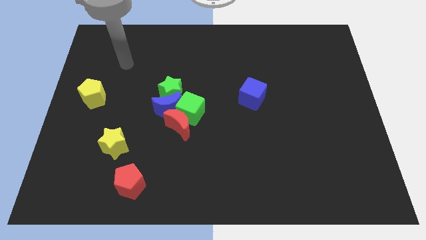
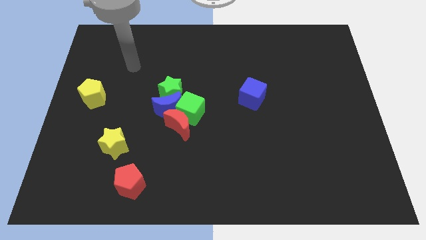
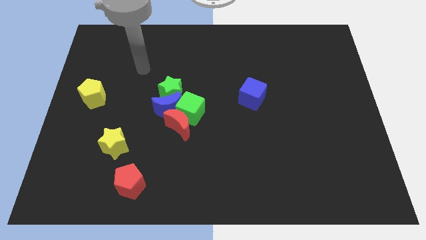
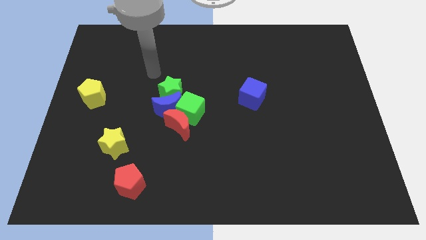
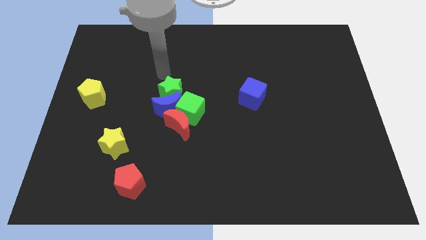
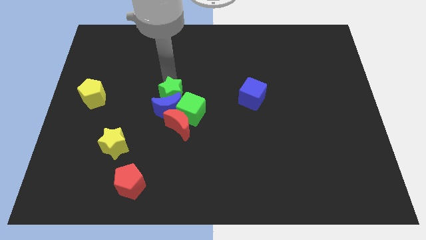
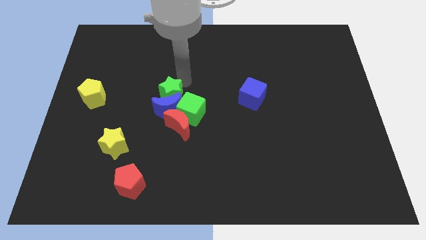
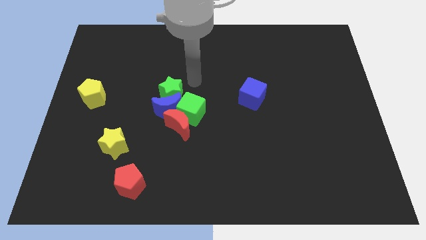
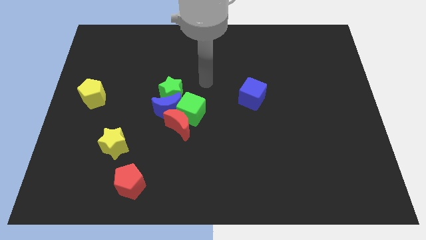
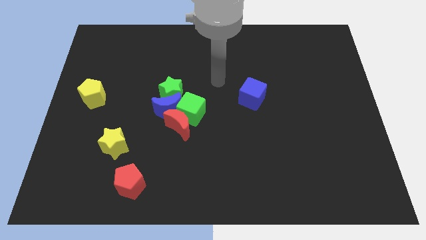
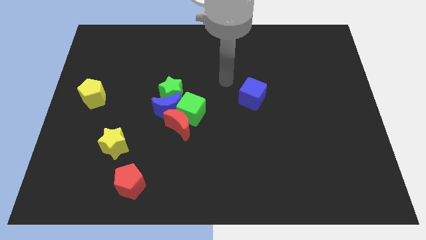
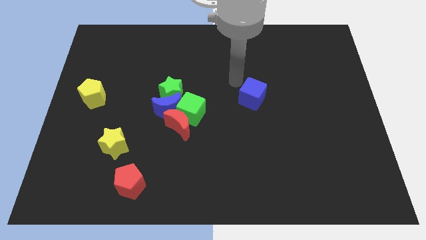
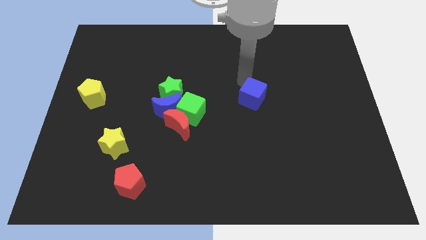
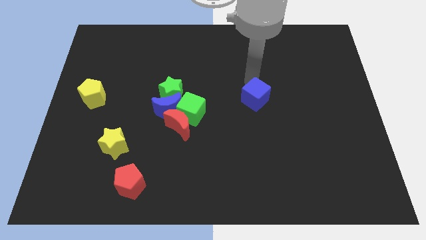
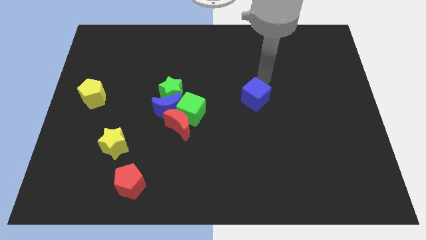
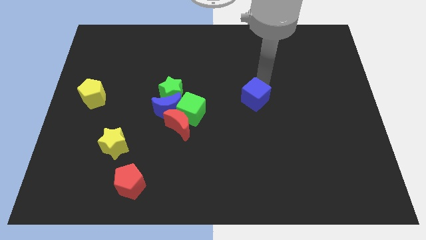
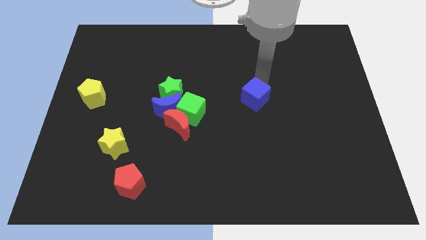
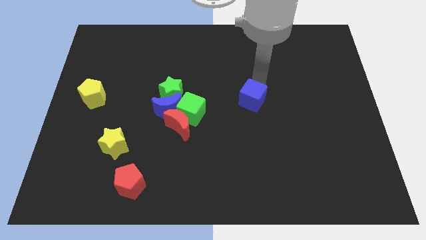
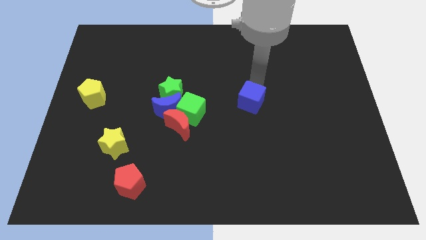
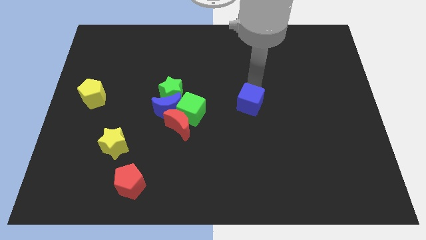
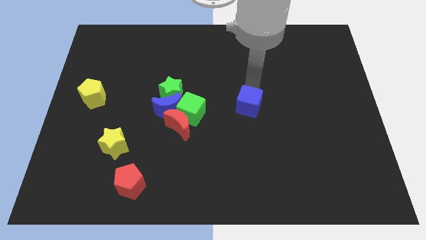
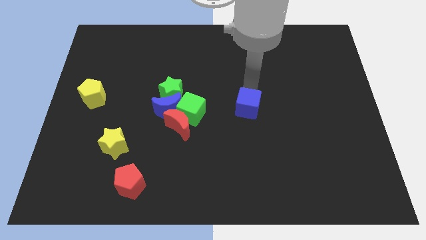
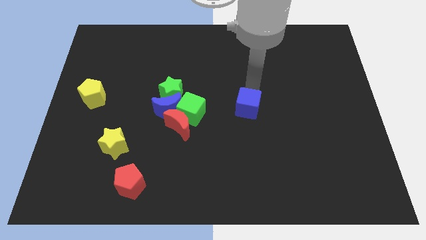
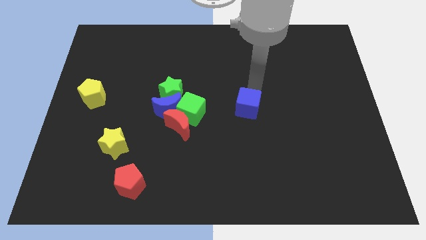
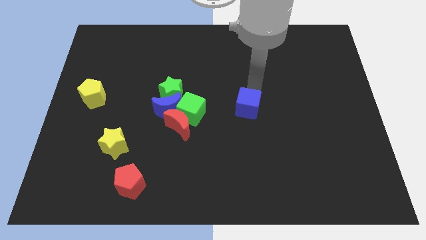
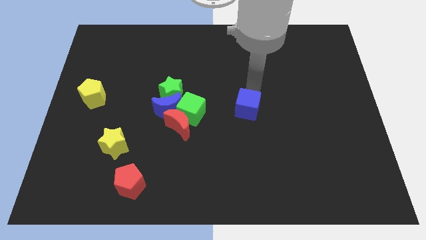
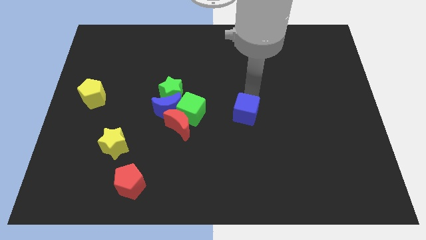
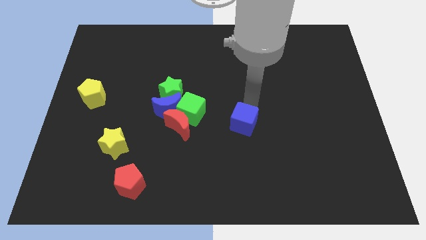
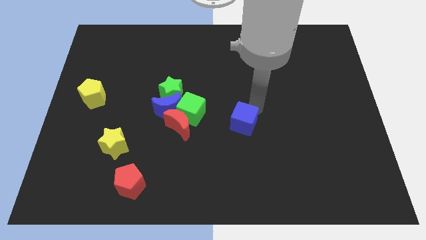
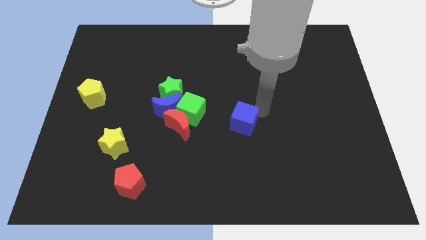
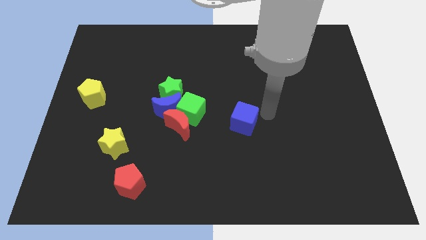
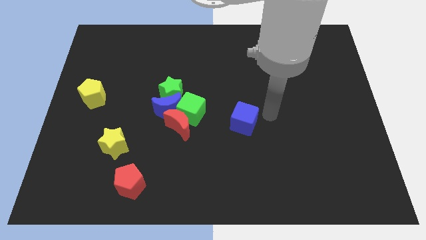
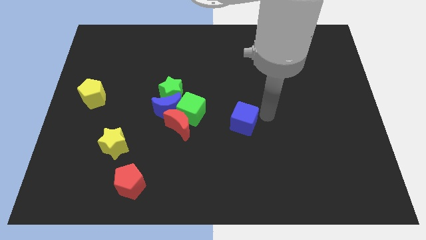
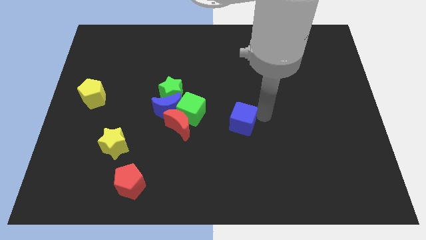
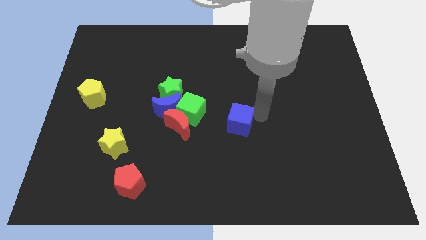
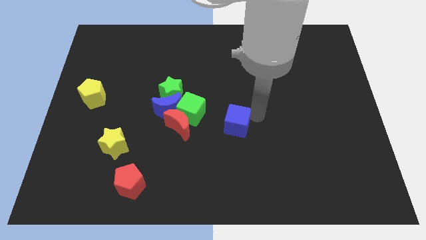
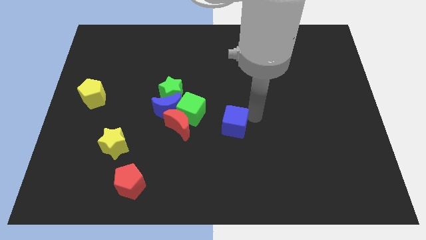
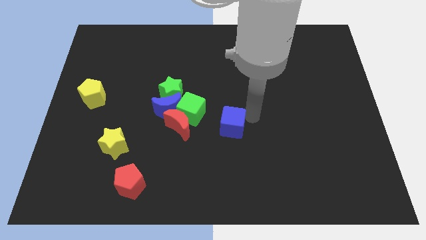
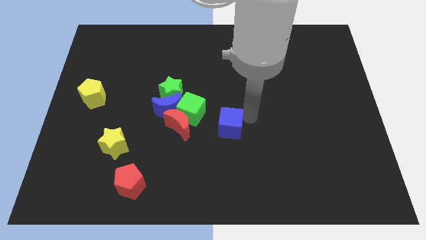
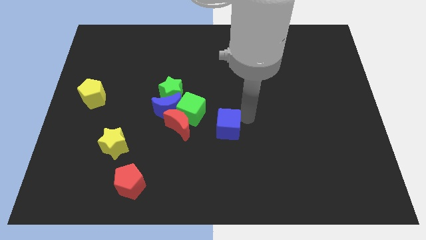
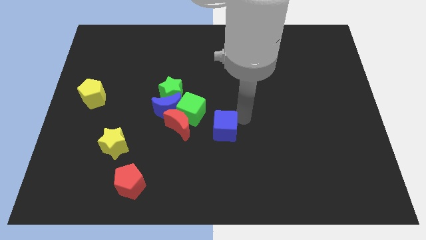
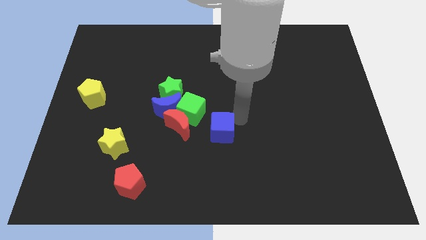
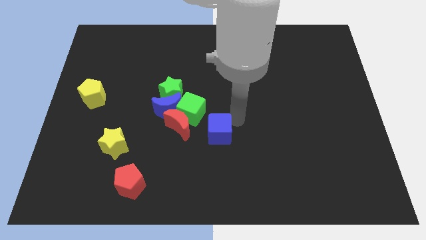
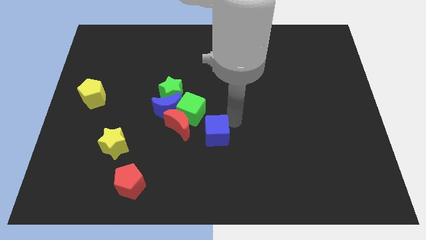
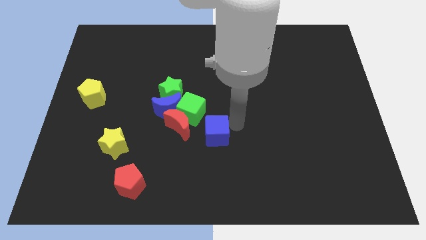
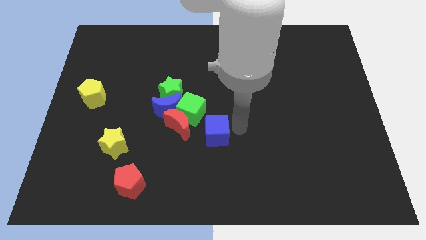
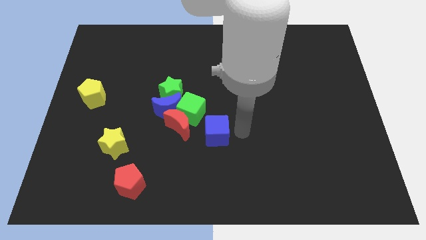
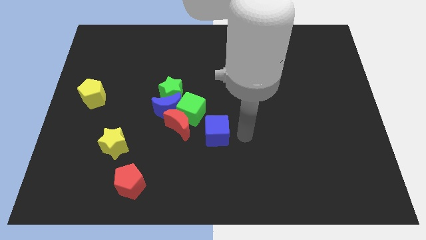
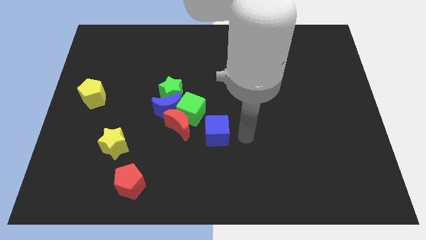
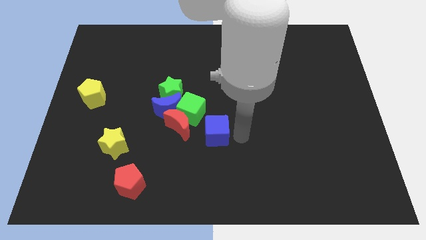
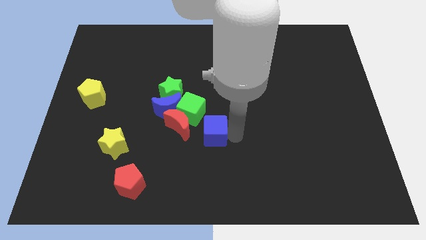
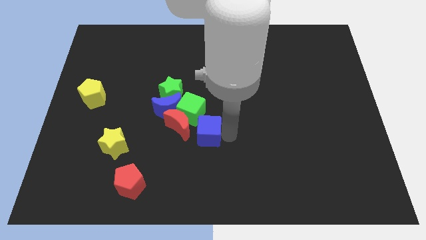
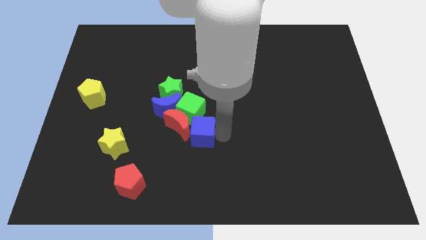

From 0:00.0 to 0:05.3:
push the blue cube to the red moon
